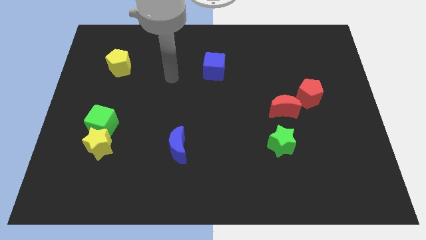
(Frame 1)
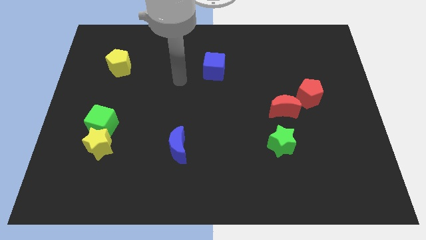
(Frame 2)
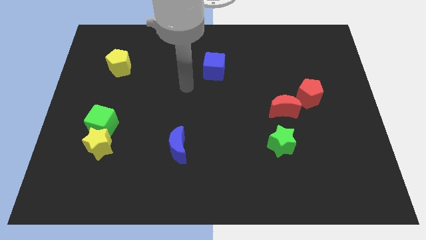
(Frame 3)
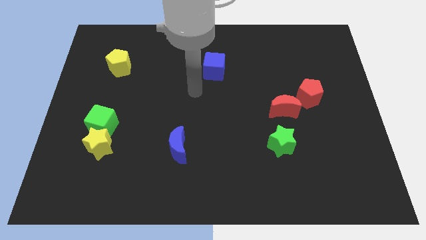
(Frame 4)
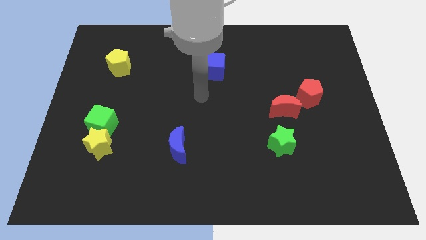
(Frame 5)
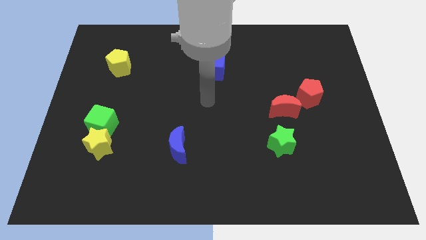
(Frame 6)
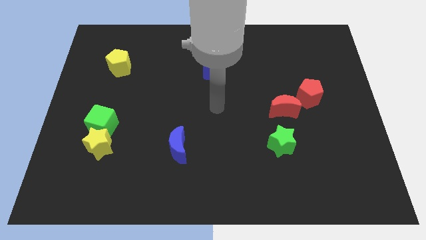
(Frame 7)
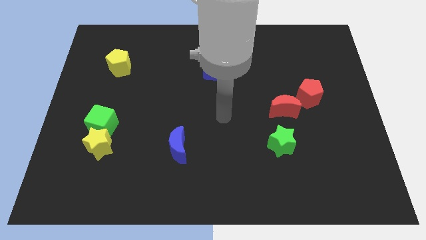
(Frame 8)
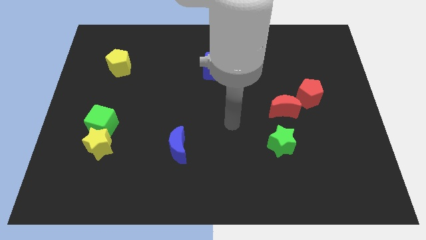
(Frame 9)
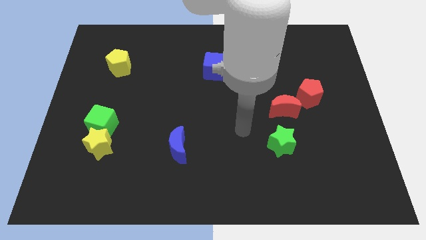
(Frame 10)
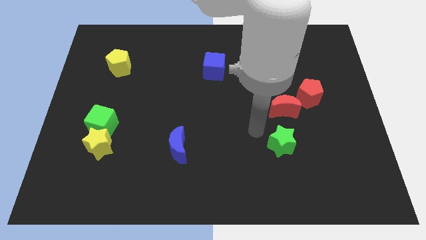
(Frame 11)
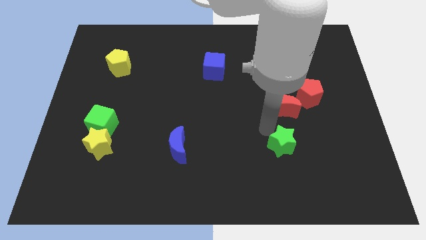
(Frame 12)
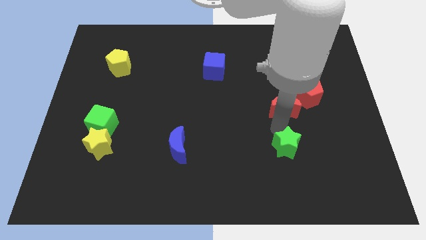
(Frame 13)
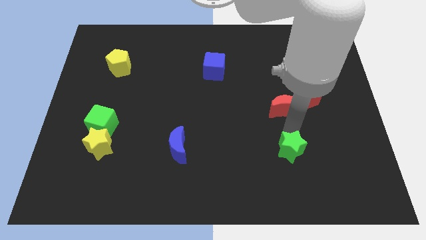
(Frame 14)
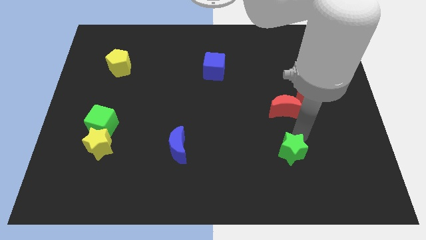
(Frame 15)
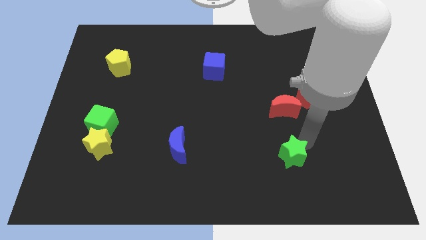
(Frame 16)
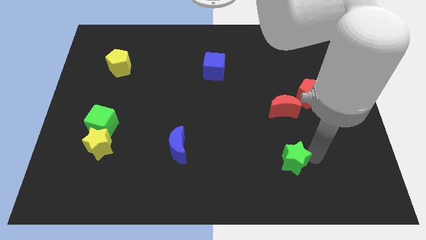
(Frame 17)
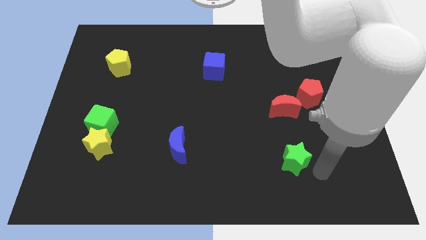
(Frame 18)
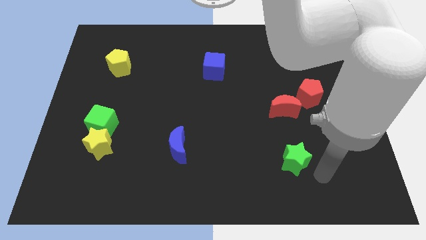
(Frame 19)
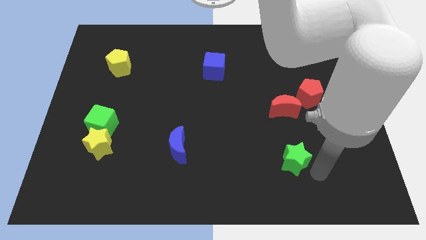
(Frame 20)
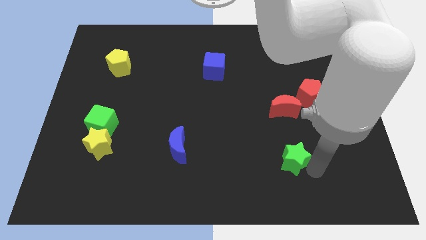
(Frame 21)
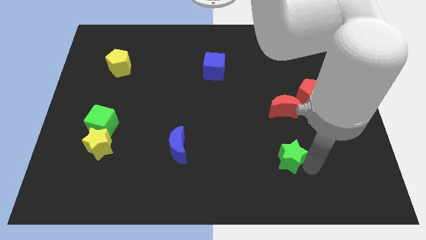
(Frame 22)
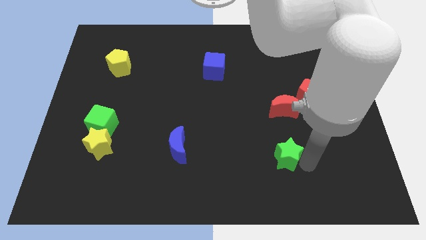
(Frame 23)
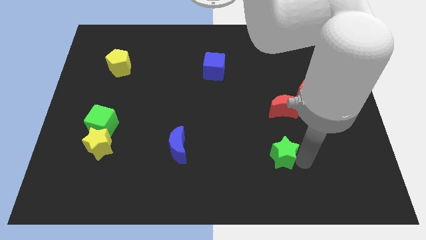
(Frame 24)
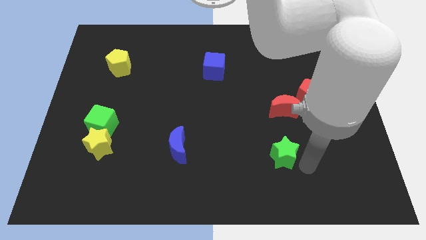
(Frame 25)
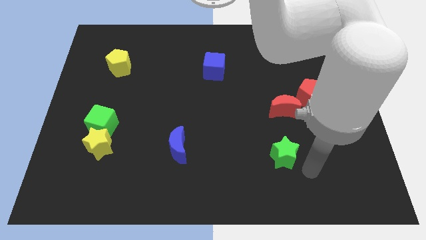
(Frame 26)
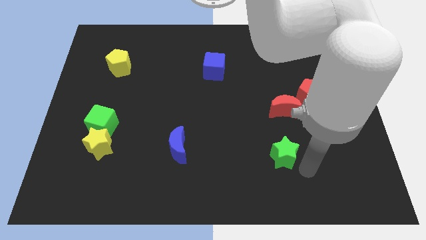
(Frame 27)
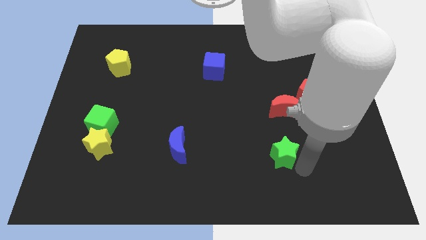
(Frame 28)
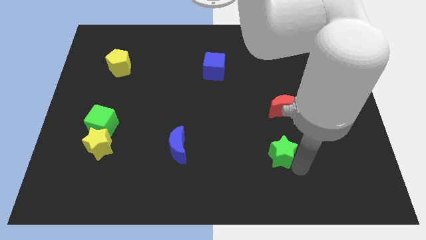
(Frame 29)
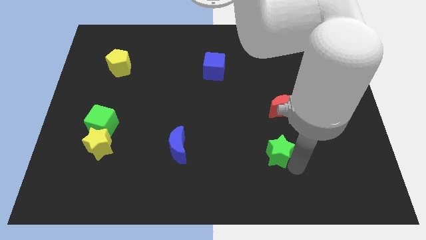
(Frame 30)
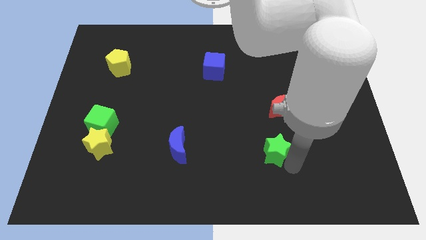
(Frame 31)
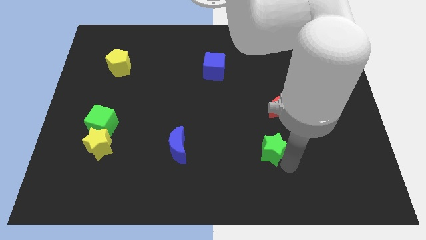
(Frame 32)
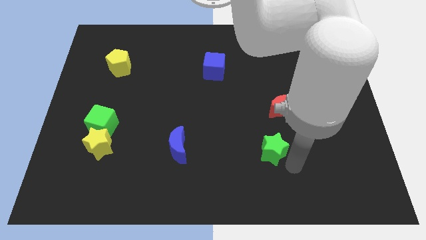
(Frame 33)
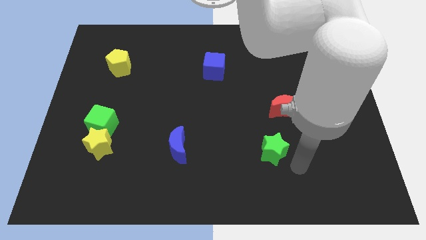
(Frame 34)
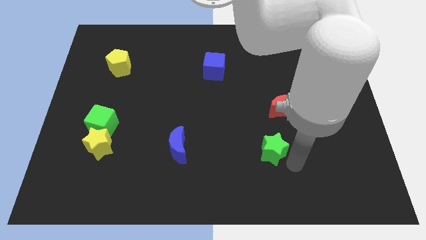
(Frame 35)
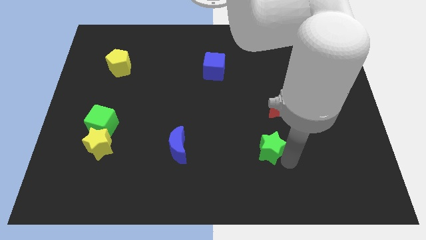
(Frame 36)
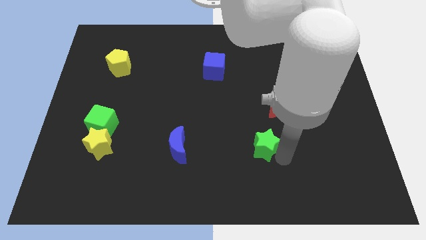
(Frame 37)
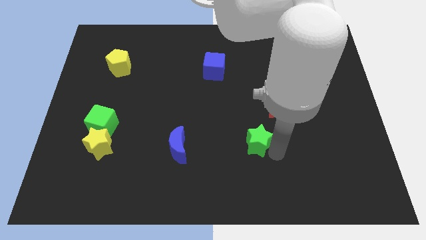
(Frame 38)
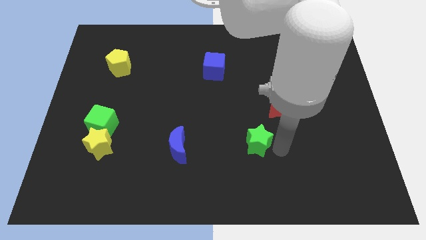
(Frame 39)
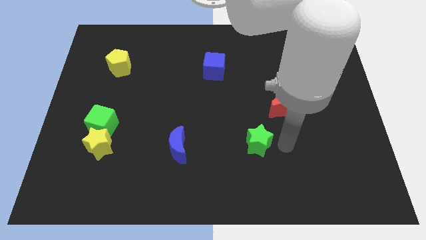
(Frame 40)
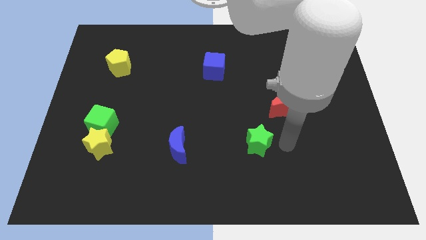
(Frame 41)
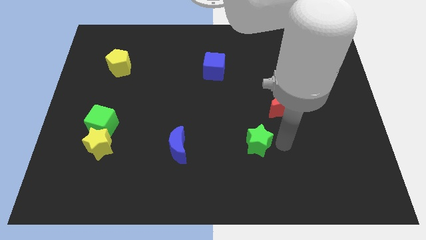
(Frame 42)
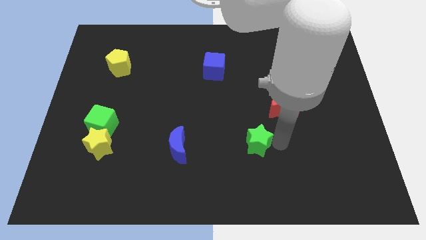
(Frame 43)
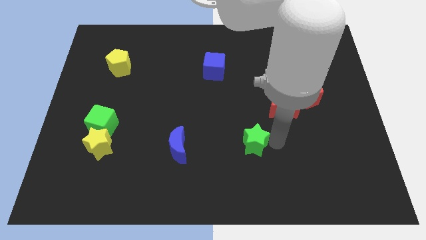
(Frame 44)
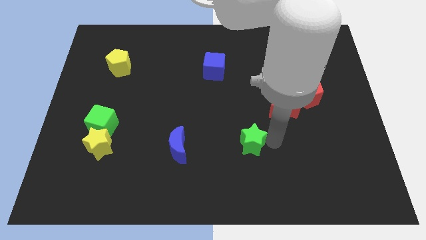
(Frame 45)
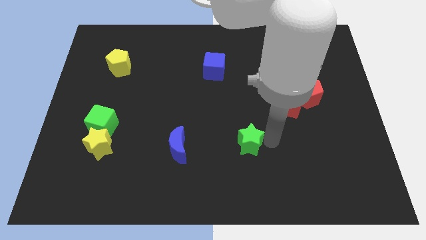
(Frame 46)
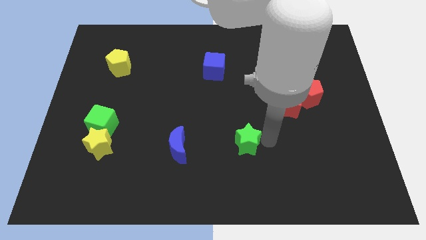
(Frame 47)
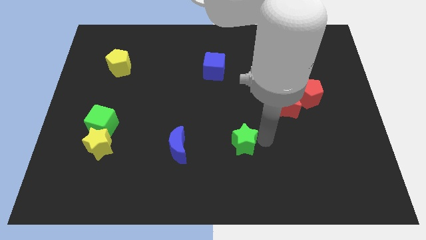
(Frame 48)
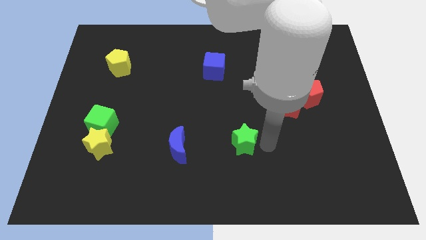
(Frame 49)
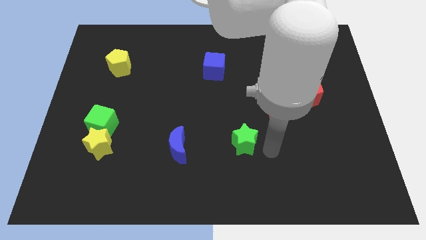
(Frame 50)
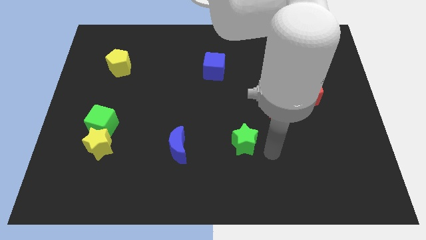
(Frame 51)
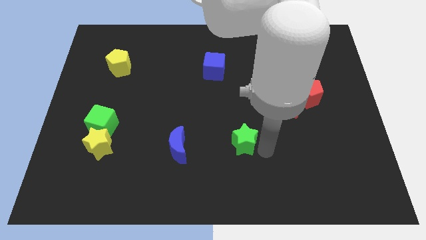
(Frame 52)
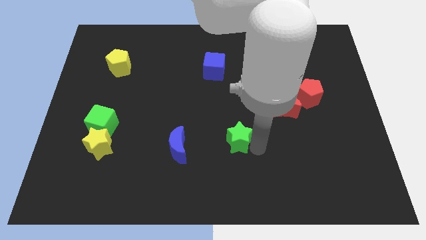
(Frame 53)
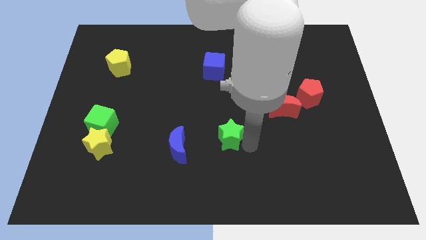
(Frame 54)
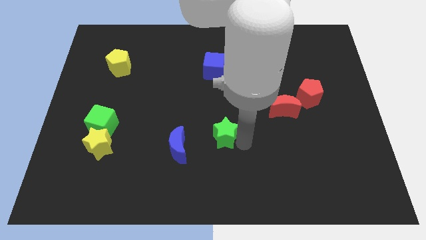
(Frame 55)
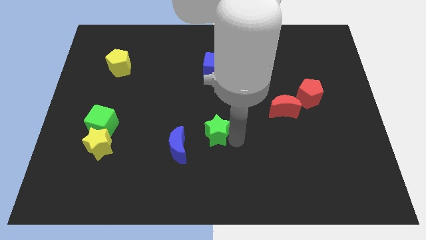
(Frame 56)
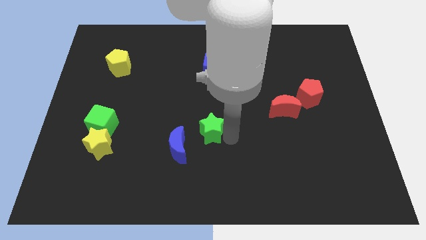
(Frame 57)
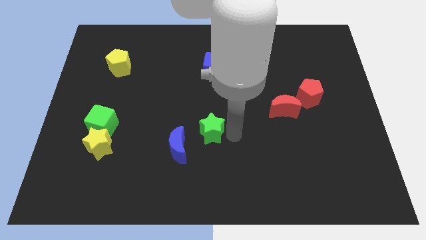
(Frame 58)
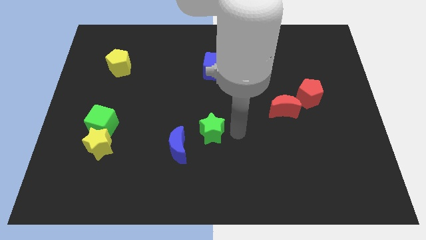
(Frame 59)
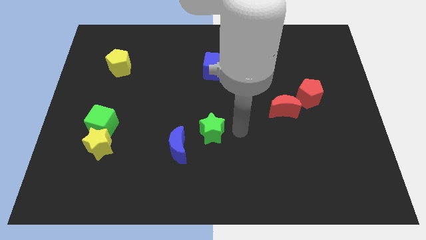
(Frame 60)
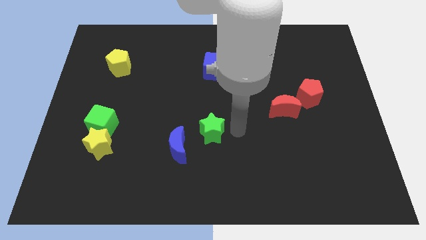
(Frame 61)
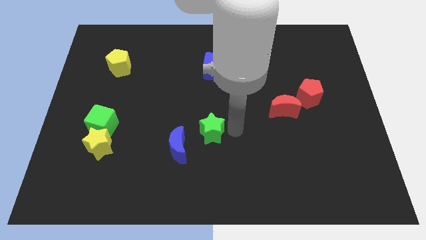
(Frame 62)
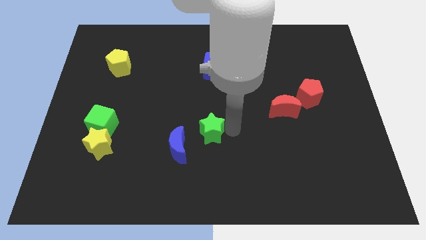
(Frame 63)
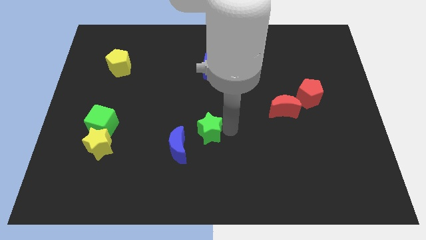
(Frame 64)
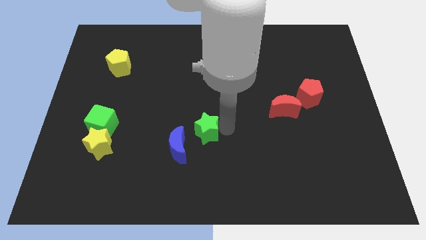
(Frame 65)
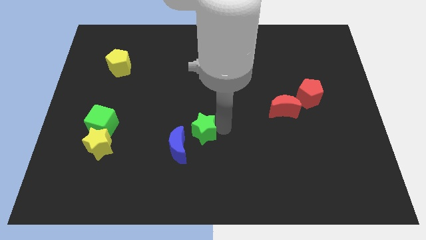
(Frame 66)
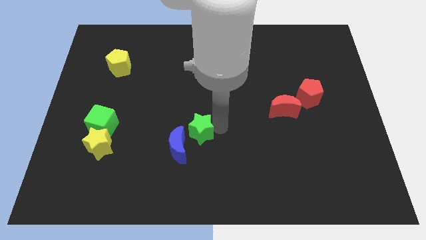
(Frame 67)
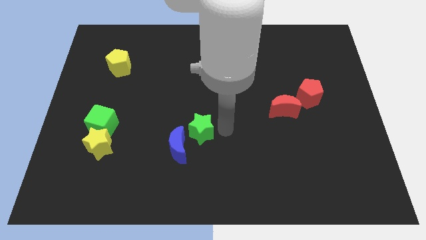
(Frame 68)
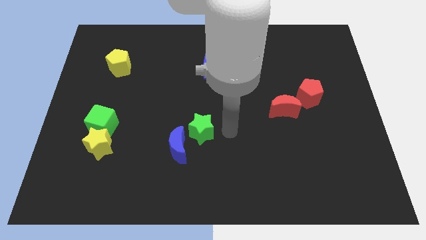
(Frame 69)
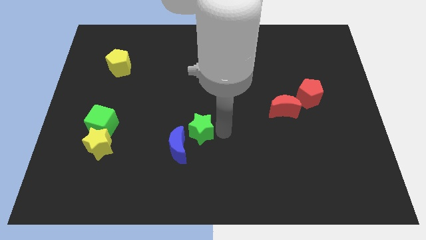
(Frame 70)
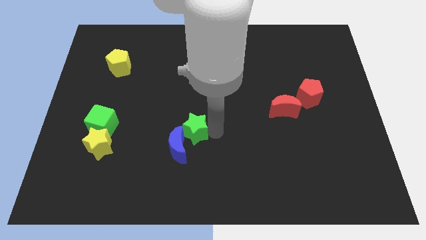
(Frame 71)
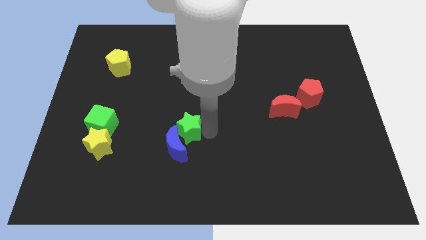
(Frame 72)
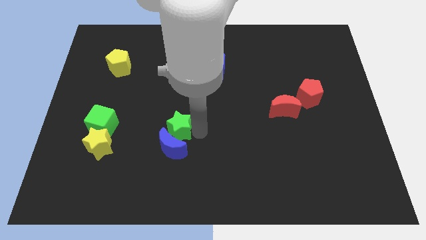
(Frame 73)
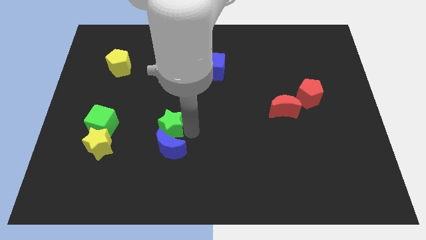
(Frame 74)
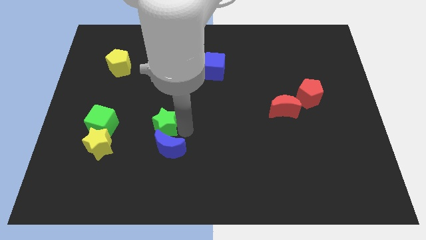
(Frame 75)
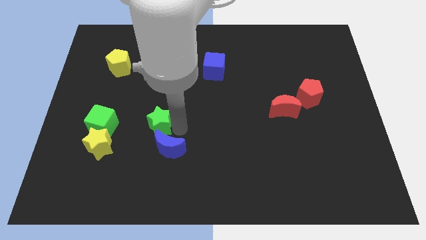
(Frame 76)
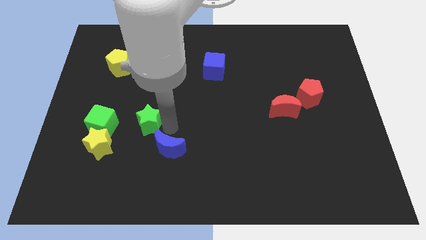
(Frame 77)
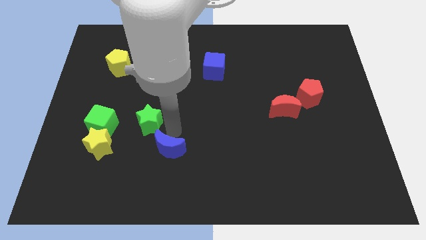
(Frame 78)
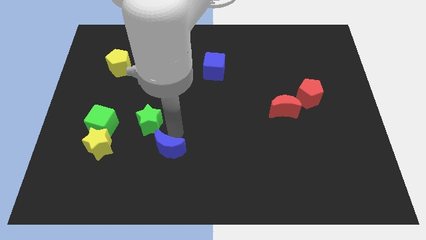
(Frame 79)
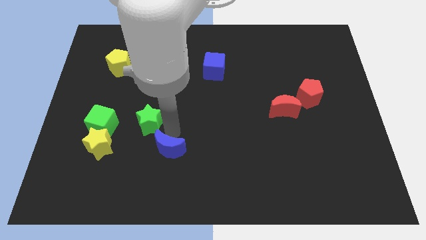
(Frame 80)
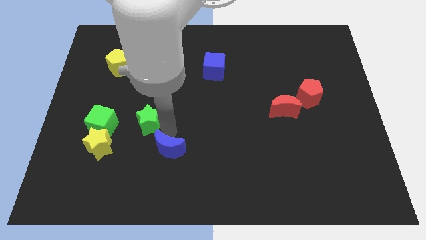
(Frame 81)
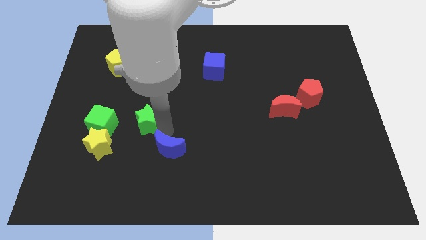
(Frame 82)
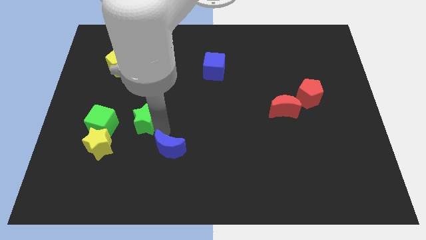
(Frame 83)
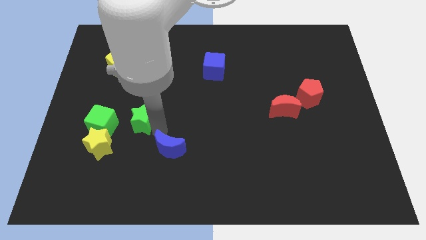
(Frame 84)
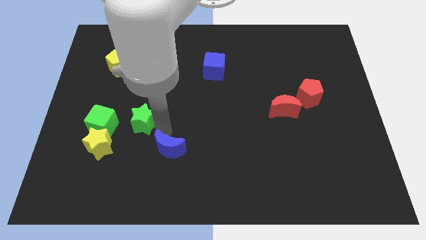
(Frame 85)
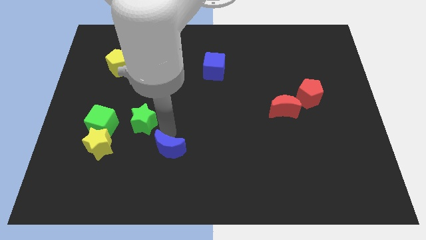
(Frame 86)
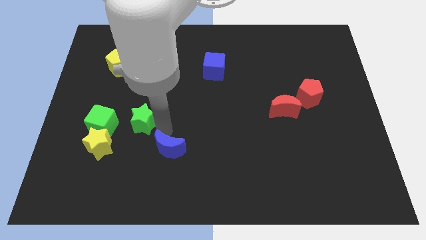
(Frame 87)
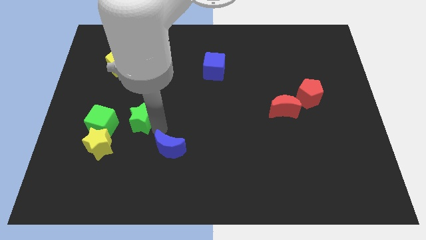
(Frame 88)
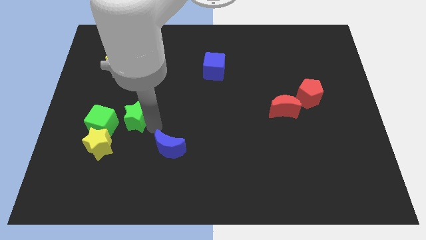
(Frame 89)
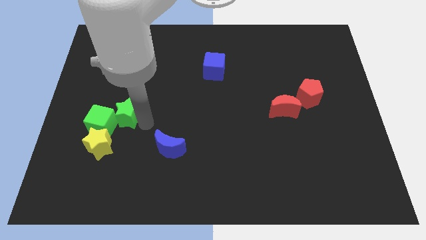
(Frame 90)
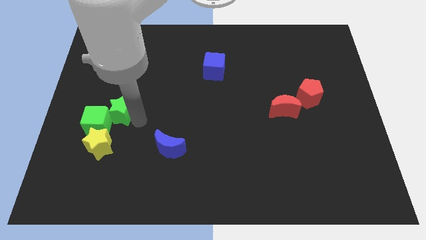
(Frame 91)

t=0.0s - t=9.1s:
slide the green star to the top of the yellow star
